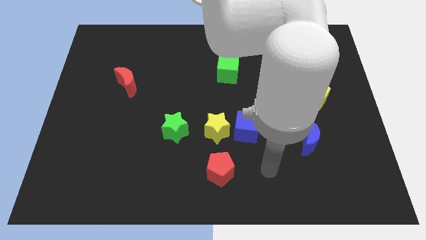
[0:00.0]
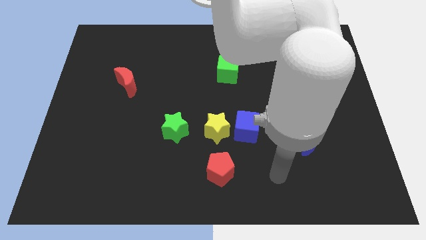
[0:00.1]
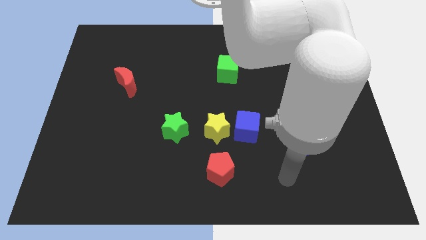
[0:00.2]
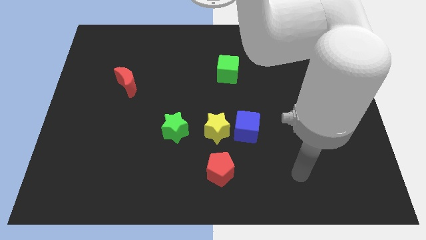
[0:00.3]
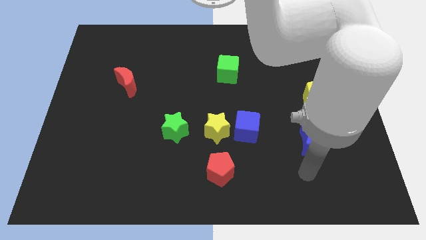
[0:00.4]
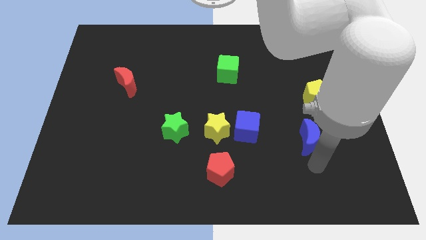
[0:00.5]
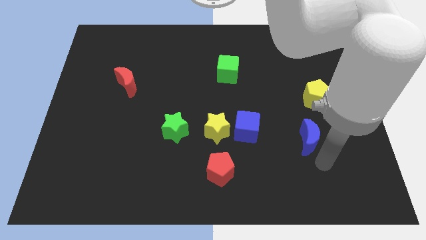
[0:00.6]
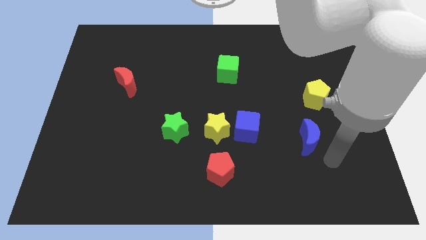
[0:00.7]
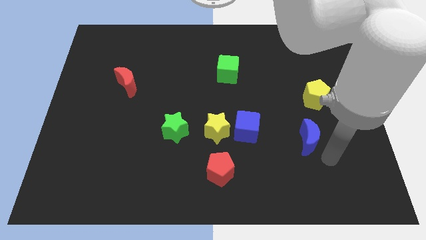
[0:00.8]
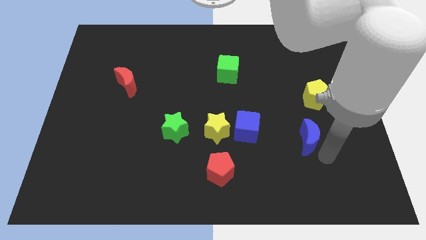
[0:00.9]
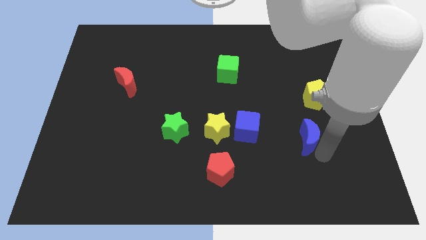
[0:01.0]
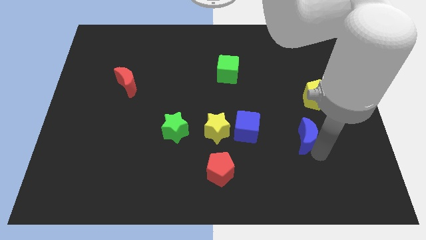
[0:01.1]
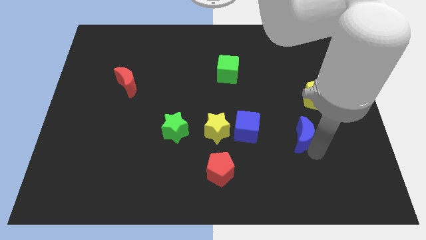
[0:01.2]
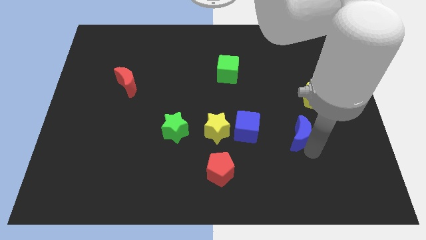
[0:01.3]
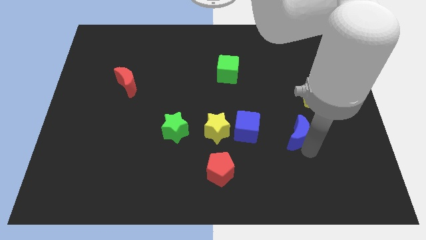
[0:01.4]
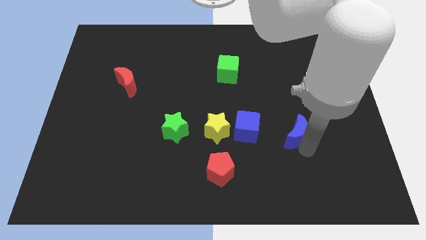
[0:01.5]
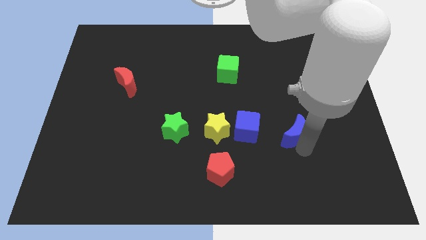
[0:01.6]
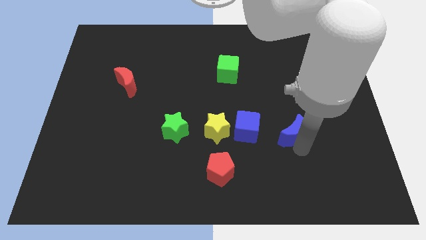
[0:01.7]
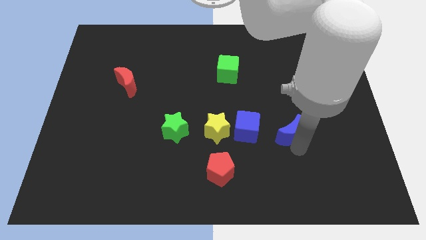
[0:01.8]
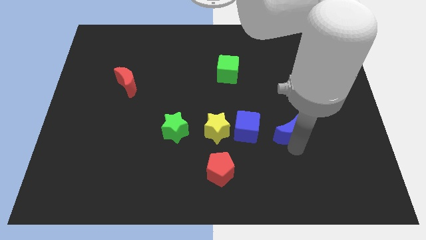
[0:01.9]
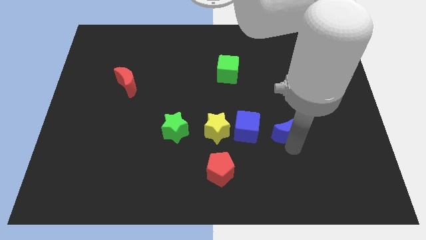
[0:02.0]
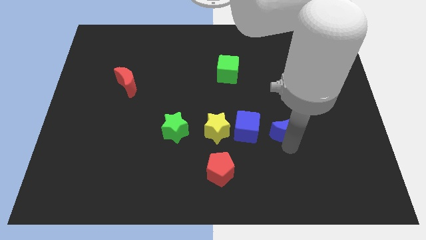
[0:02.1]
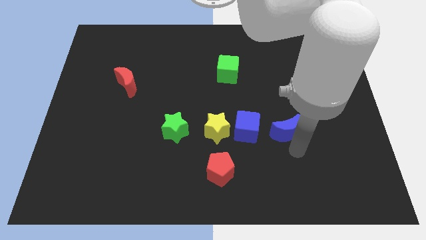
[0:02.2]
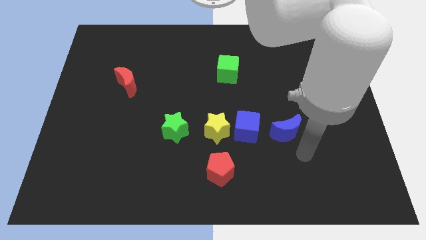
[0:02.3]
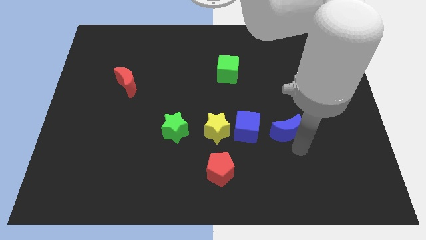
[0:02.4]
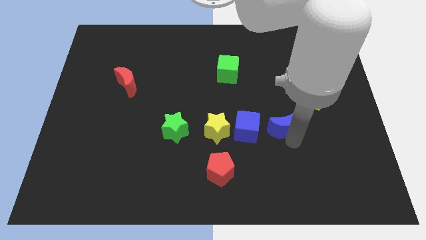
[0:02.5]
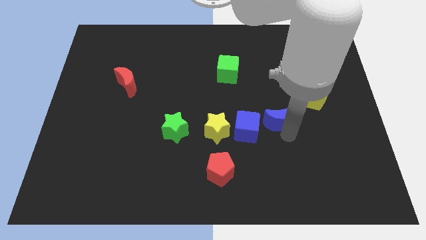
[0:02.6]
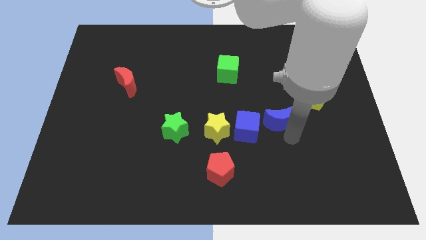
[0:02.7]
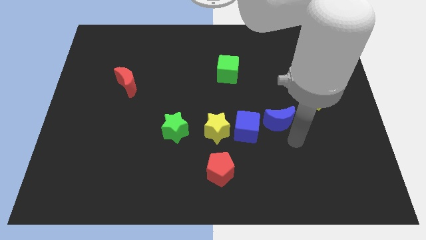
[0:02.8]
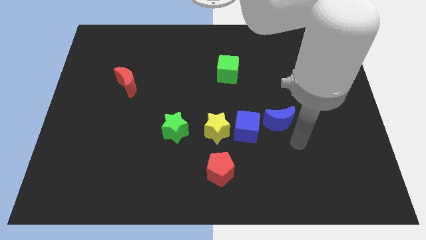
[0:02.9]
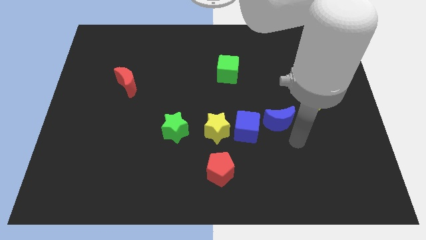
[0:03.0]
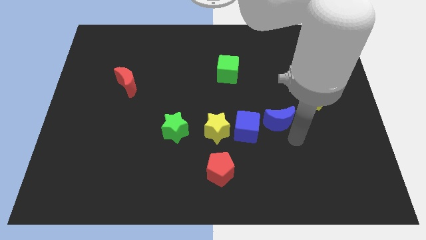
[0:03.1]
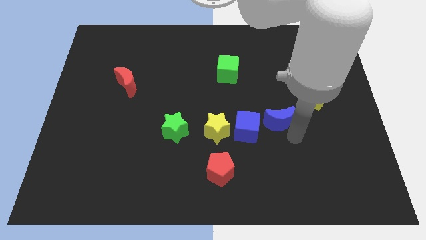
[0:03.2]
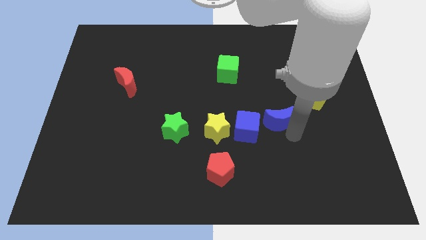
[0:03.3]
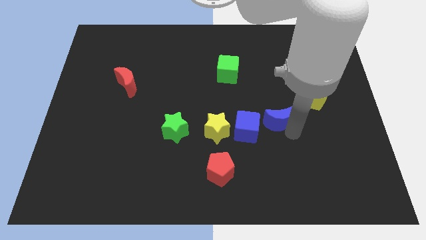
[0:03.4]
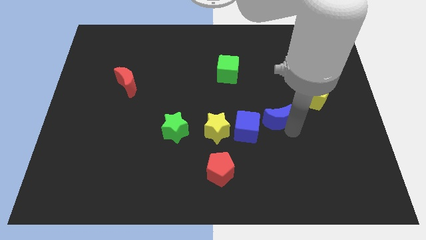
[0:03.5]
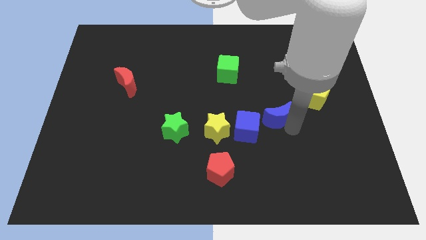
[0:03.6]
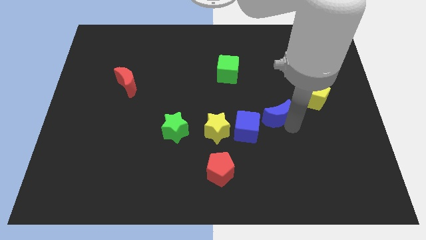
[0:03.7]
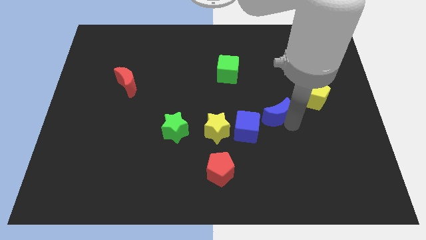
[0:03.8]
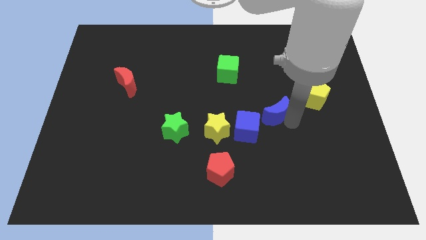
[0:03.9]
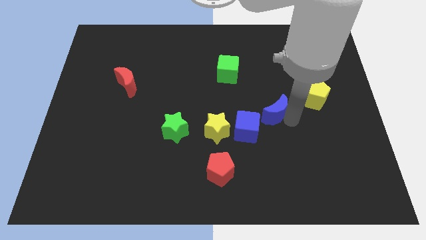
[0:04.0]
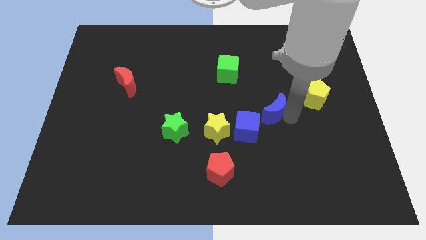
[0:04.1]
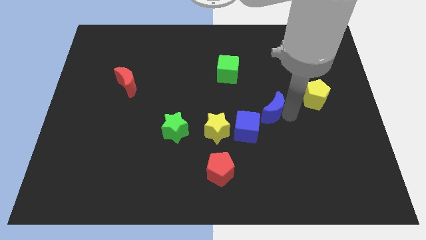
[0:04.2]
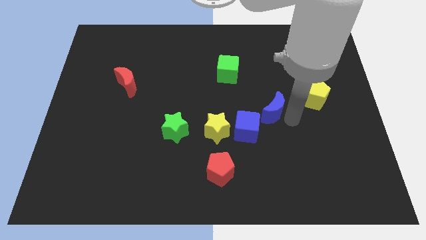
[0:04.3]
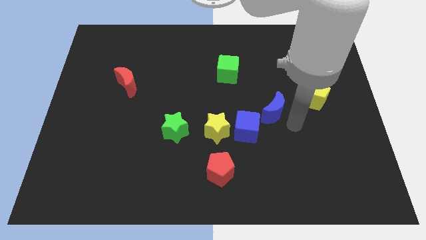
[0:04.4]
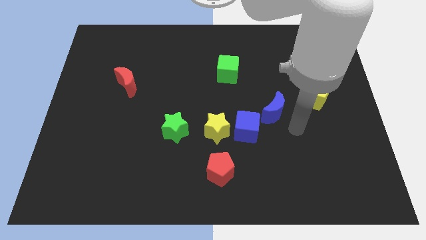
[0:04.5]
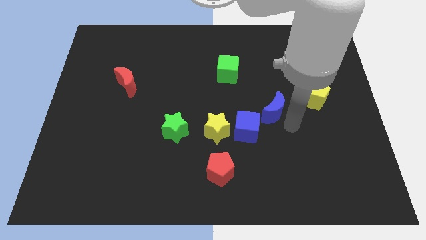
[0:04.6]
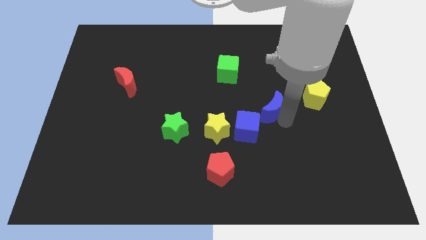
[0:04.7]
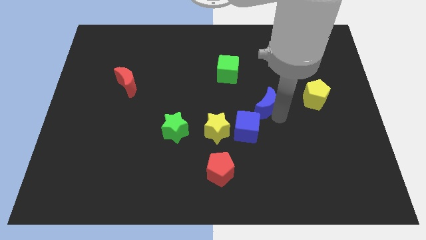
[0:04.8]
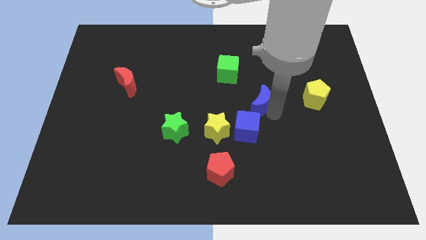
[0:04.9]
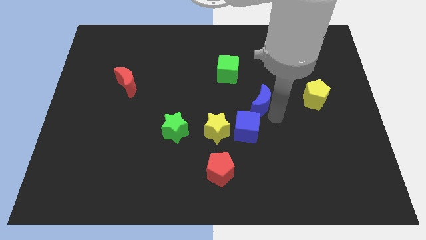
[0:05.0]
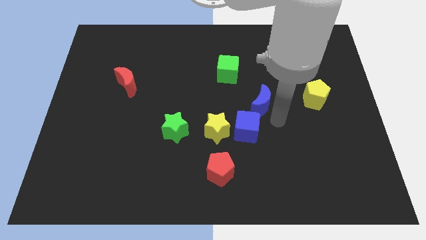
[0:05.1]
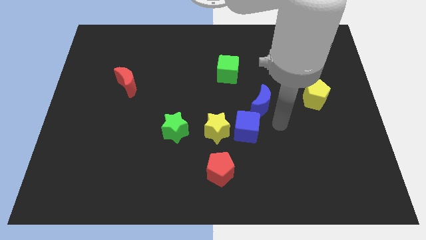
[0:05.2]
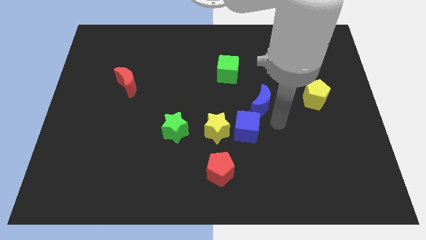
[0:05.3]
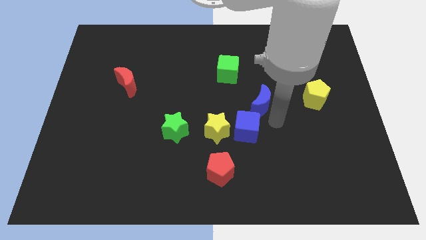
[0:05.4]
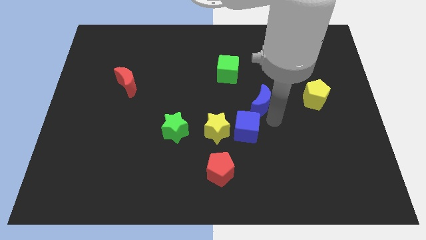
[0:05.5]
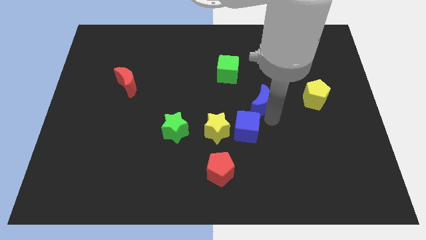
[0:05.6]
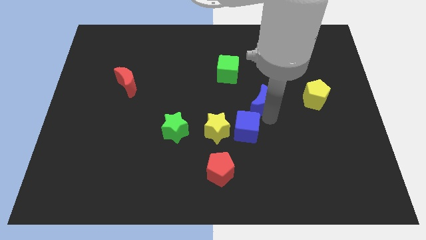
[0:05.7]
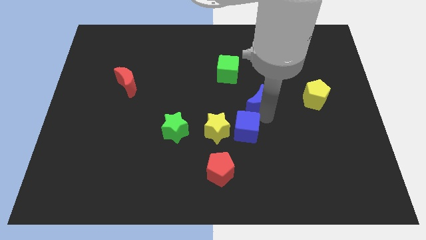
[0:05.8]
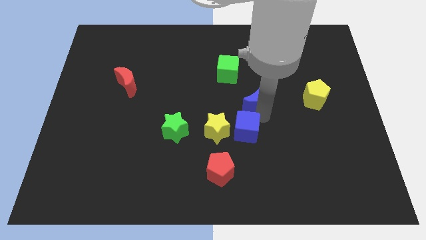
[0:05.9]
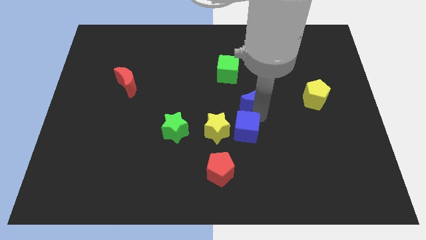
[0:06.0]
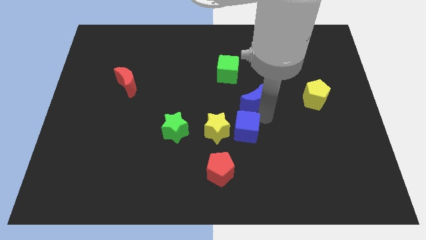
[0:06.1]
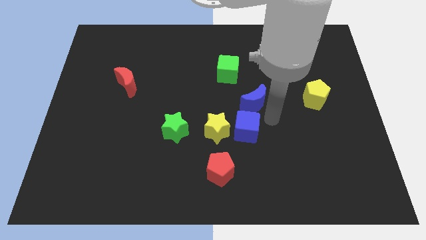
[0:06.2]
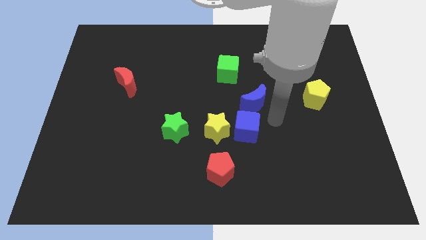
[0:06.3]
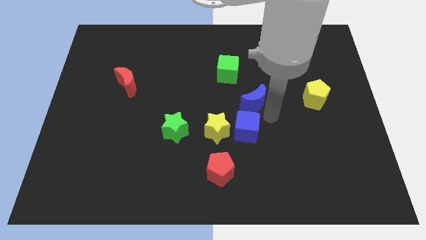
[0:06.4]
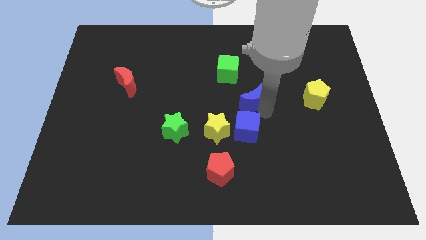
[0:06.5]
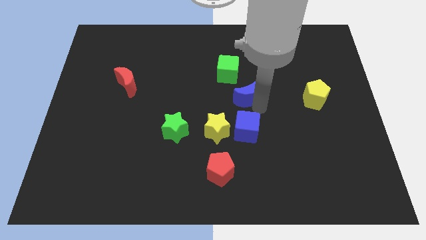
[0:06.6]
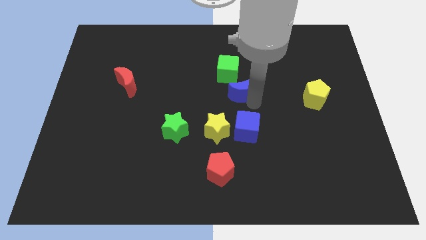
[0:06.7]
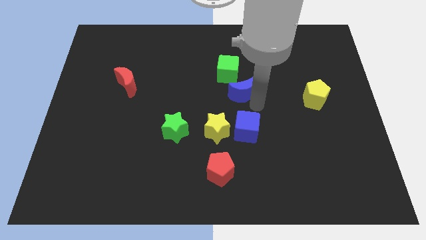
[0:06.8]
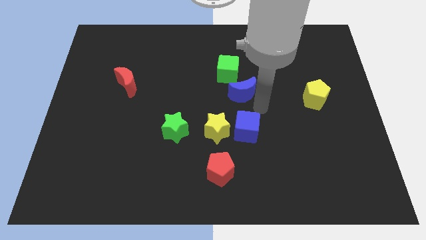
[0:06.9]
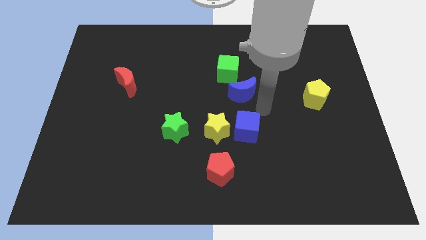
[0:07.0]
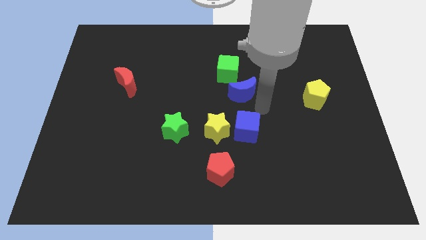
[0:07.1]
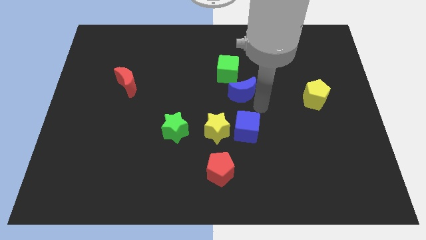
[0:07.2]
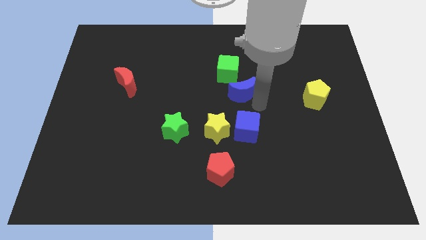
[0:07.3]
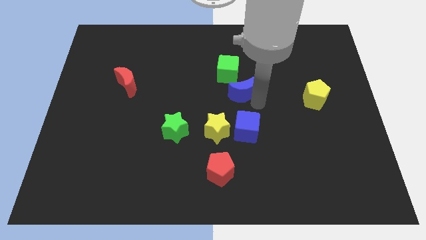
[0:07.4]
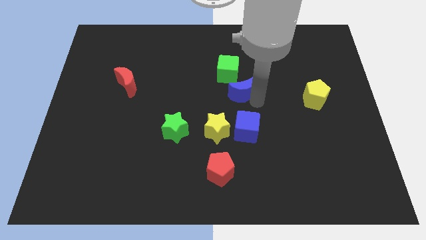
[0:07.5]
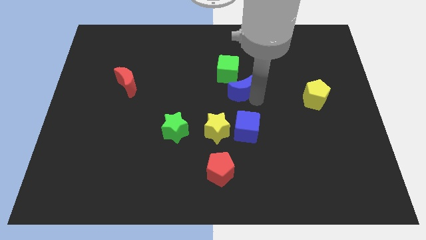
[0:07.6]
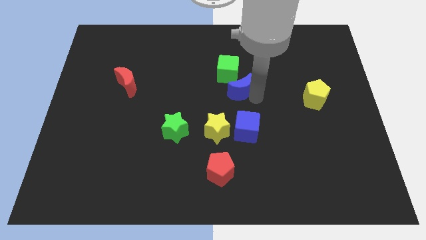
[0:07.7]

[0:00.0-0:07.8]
push the blue moon up and then left

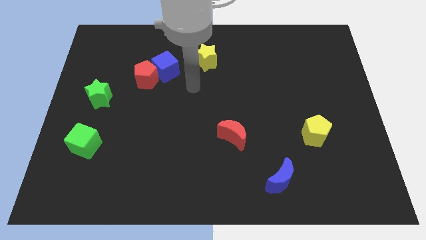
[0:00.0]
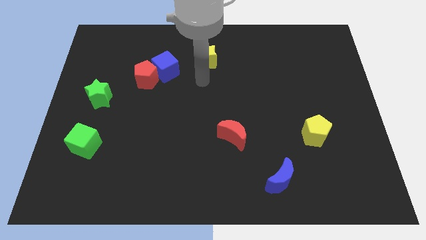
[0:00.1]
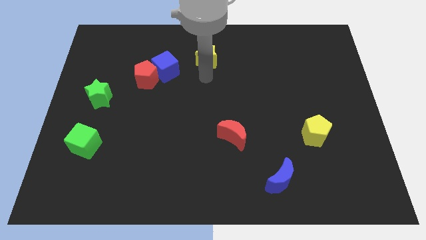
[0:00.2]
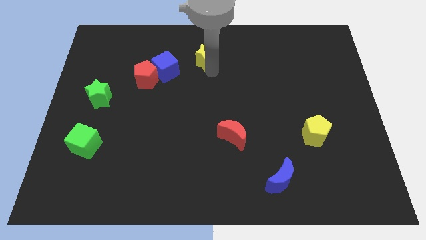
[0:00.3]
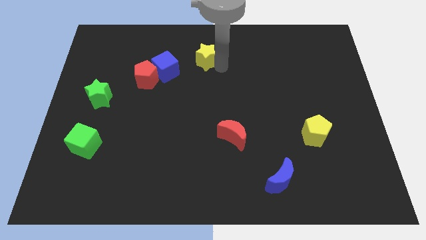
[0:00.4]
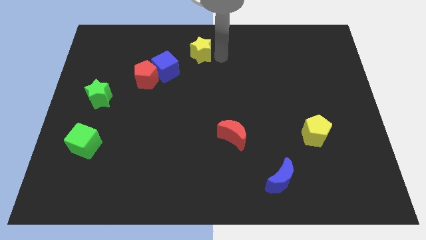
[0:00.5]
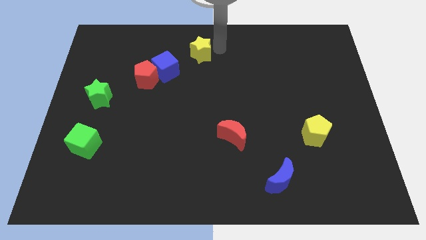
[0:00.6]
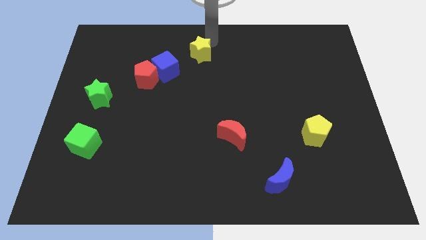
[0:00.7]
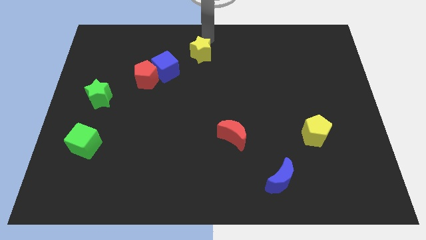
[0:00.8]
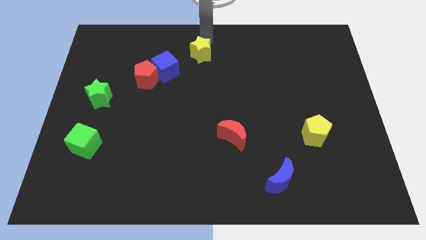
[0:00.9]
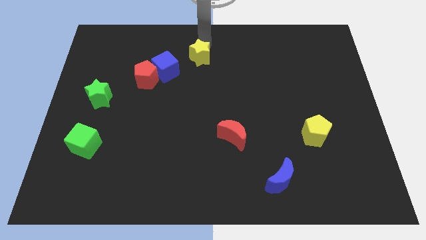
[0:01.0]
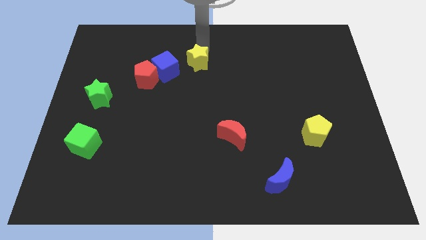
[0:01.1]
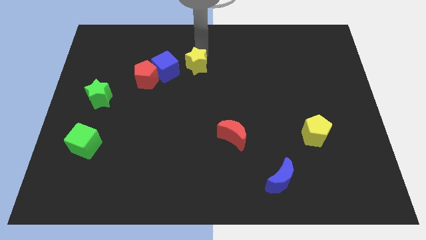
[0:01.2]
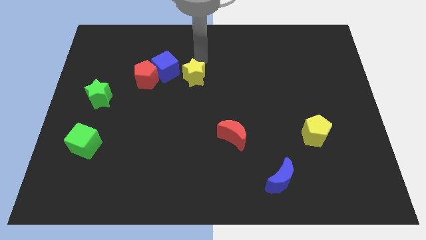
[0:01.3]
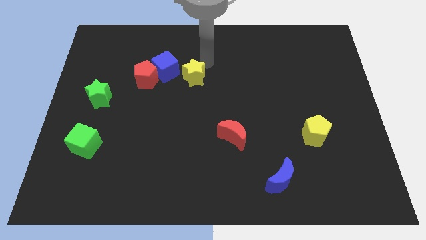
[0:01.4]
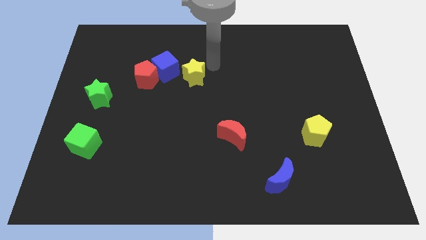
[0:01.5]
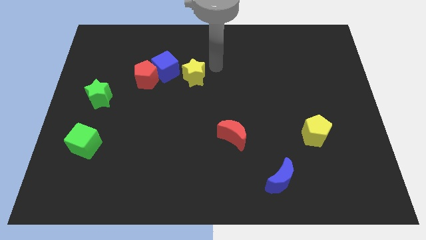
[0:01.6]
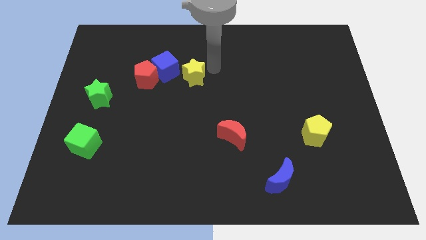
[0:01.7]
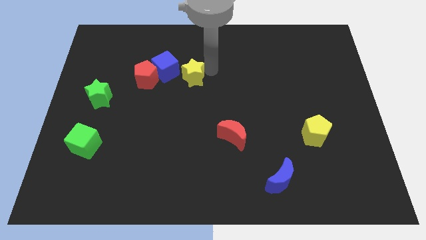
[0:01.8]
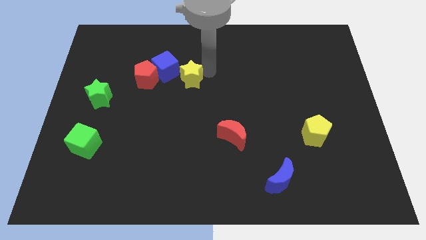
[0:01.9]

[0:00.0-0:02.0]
move the yellow star a bit down and to the left diagonally
